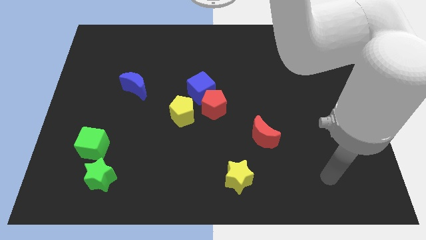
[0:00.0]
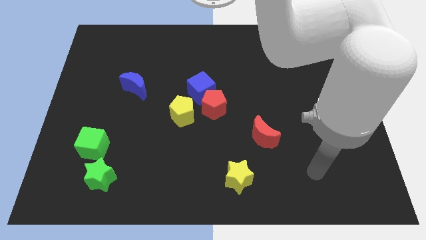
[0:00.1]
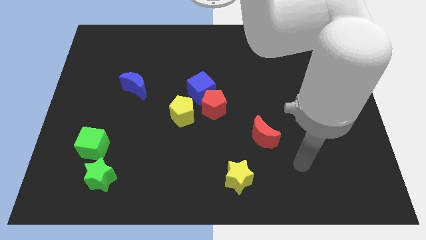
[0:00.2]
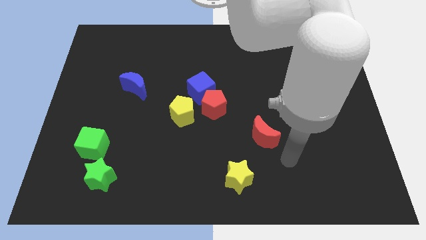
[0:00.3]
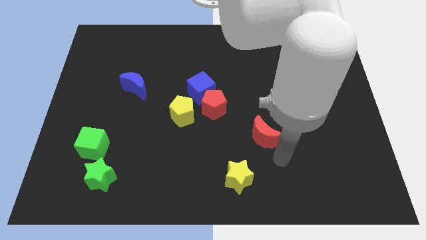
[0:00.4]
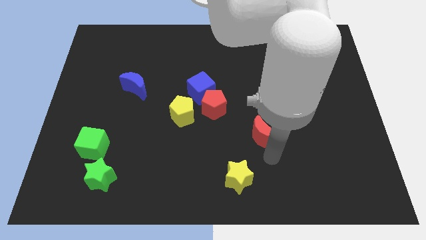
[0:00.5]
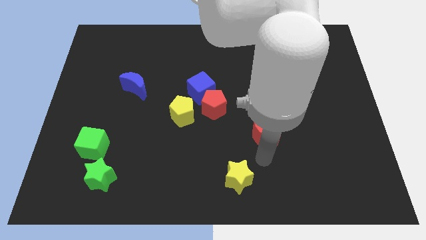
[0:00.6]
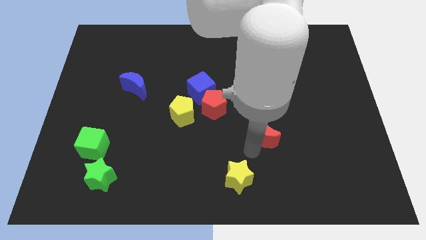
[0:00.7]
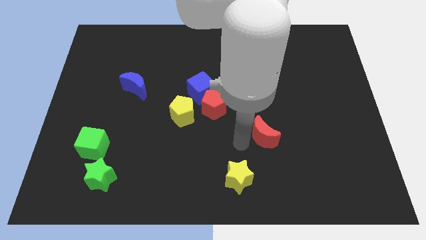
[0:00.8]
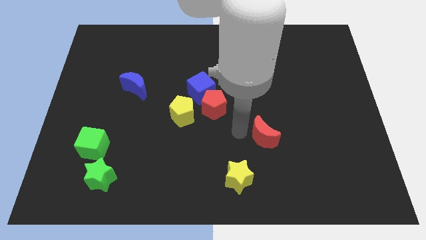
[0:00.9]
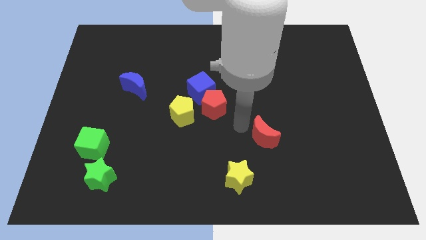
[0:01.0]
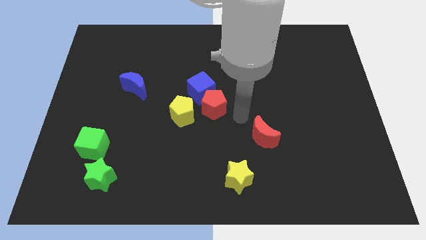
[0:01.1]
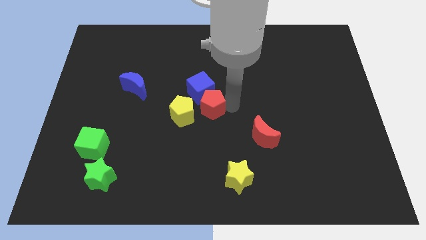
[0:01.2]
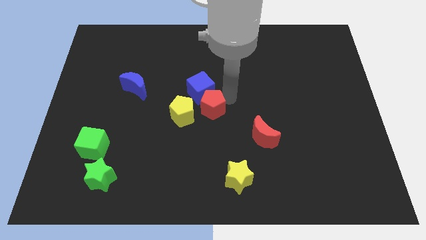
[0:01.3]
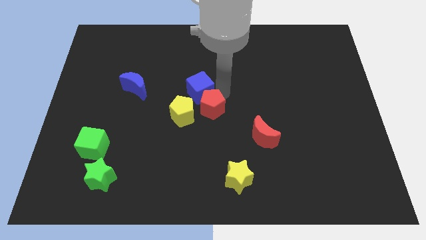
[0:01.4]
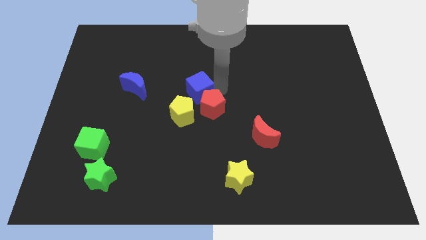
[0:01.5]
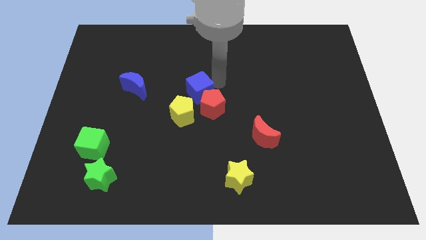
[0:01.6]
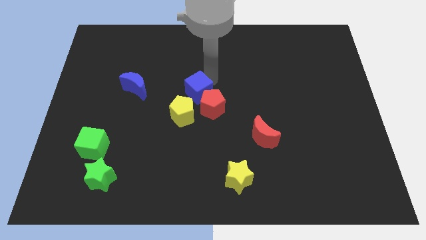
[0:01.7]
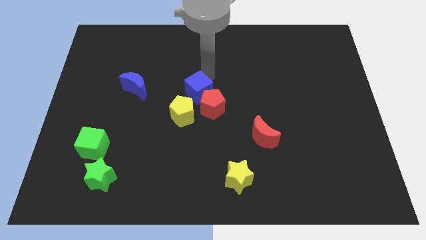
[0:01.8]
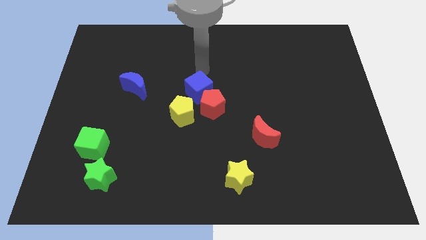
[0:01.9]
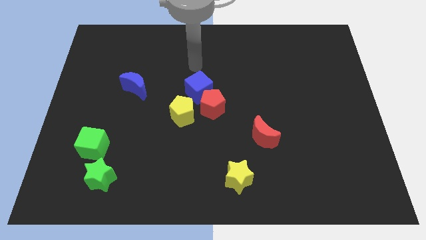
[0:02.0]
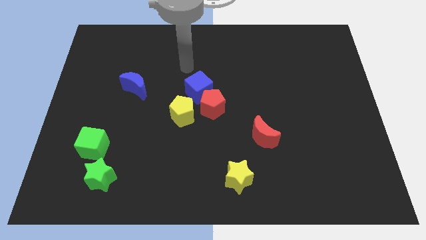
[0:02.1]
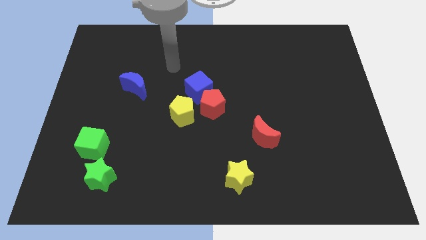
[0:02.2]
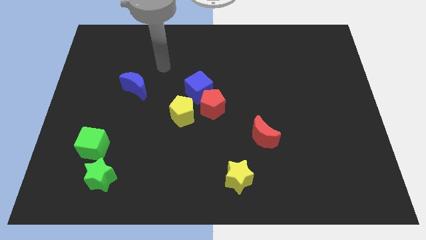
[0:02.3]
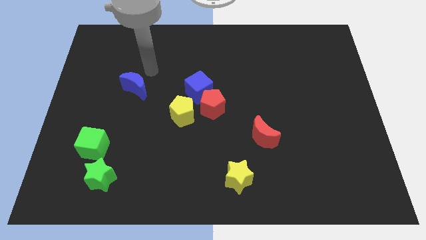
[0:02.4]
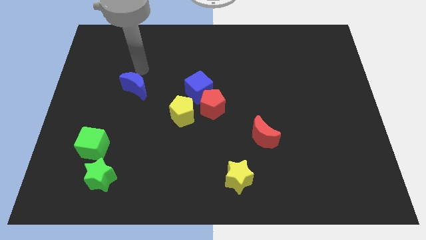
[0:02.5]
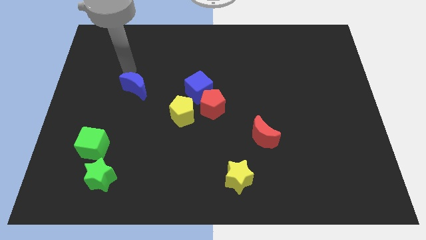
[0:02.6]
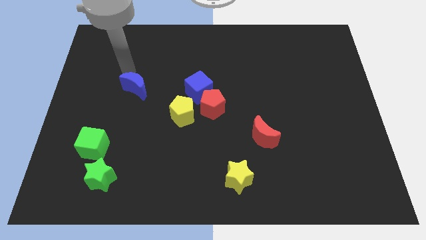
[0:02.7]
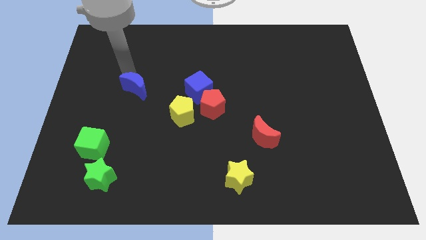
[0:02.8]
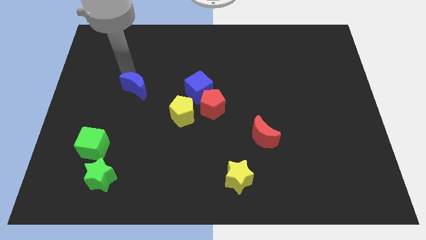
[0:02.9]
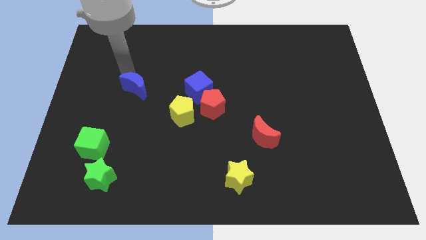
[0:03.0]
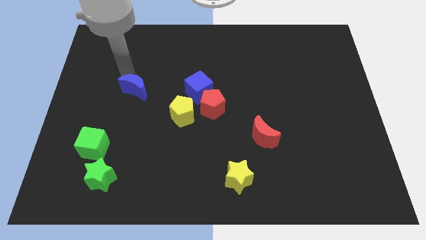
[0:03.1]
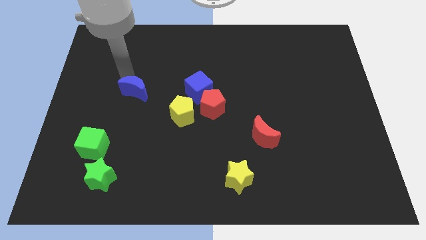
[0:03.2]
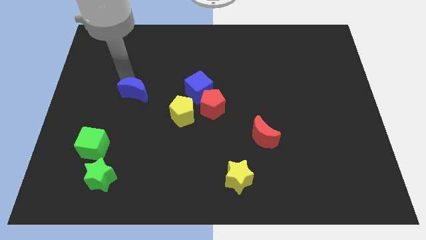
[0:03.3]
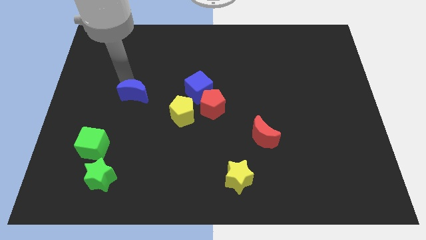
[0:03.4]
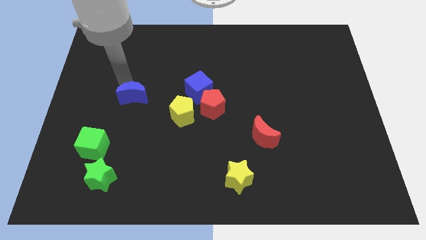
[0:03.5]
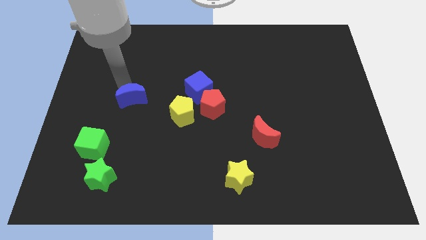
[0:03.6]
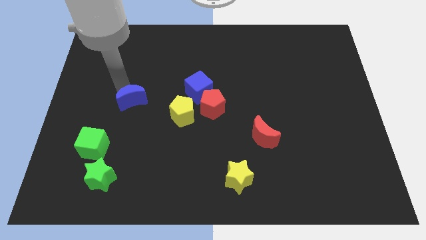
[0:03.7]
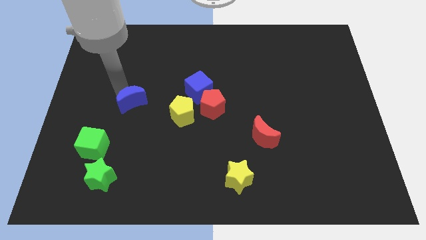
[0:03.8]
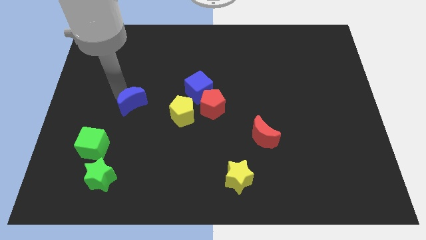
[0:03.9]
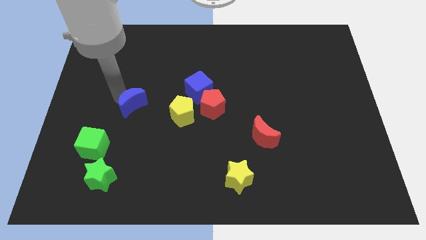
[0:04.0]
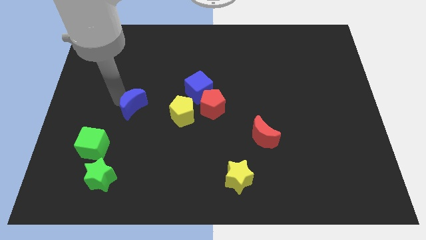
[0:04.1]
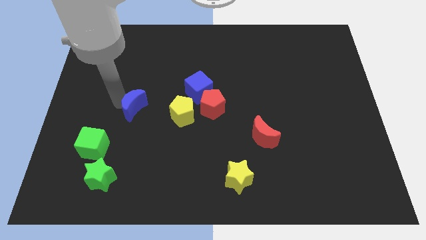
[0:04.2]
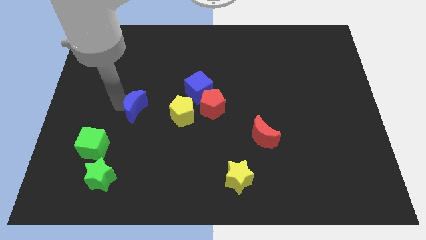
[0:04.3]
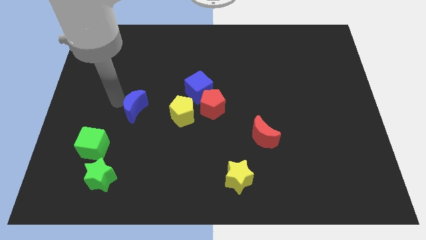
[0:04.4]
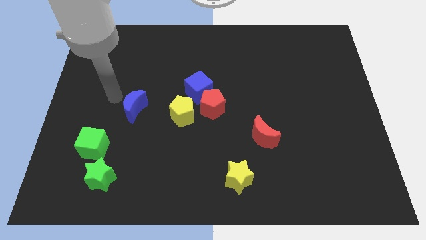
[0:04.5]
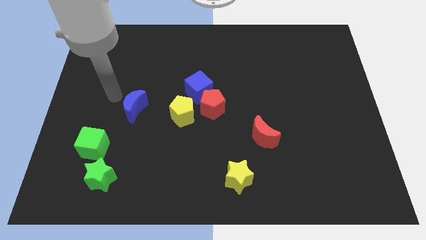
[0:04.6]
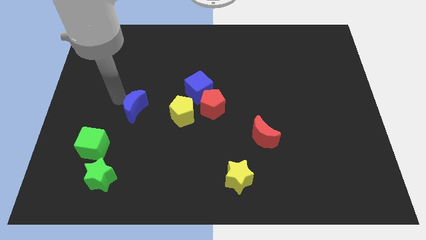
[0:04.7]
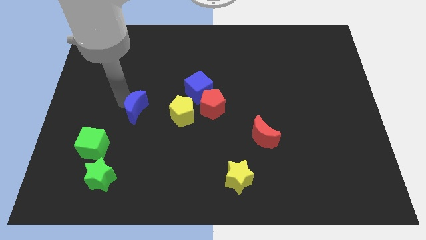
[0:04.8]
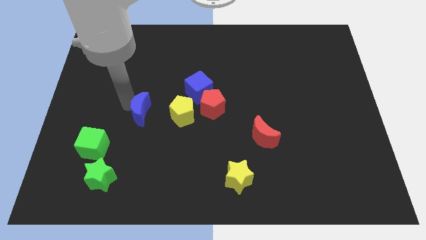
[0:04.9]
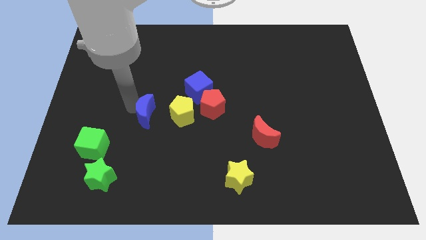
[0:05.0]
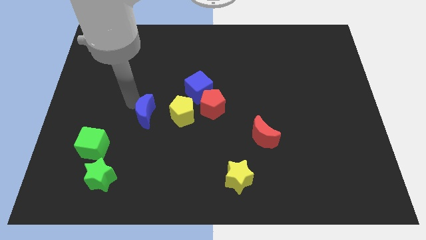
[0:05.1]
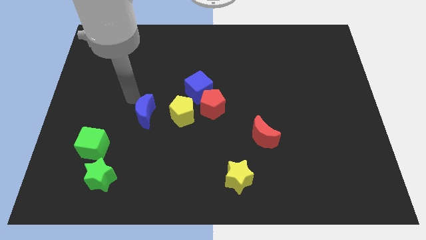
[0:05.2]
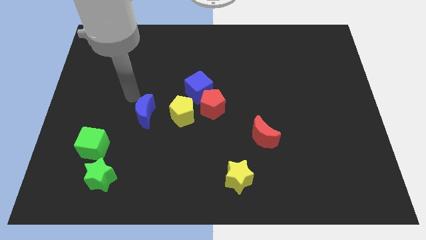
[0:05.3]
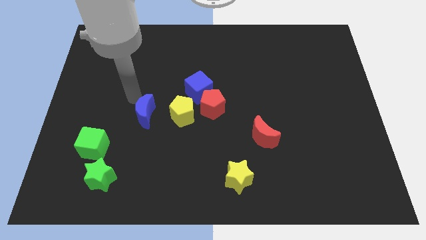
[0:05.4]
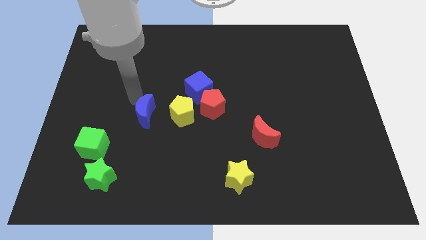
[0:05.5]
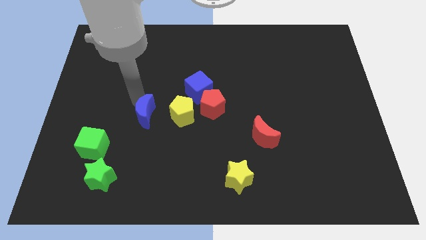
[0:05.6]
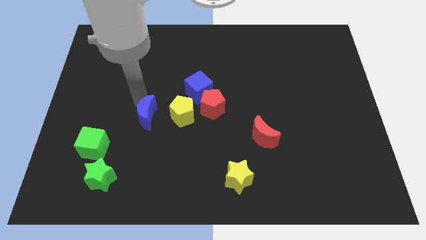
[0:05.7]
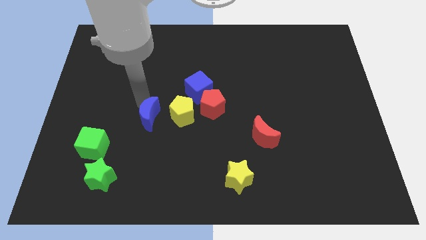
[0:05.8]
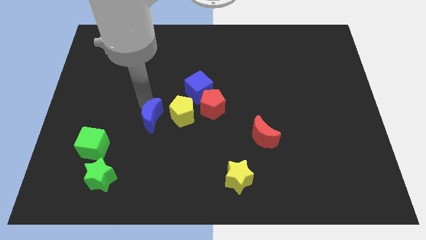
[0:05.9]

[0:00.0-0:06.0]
move the blue moon to the bottom left side of the yellow pentagon

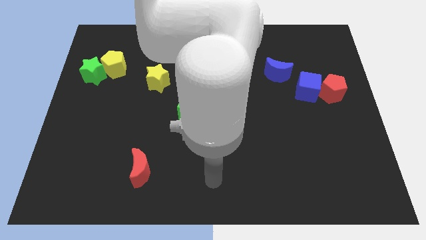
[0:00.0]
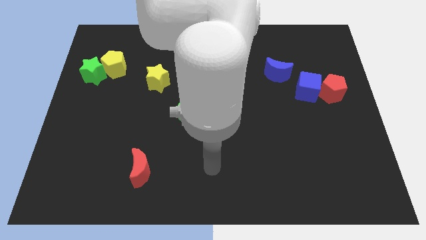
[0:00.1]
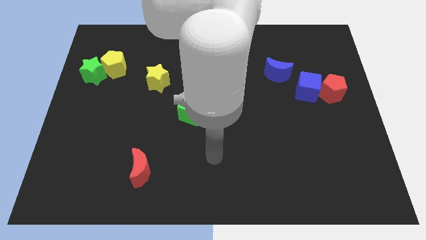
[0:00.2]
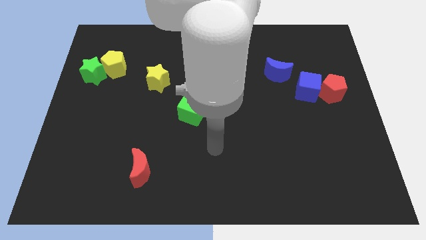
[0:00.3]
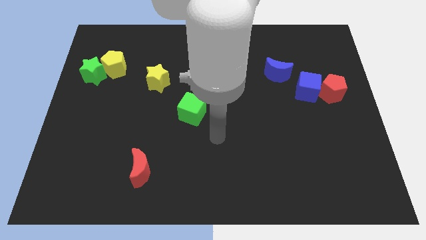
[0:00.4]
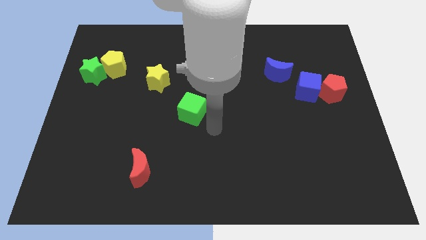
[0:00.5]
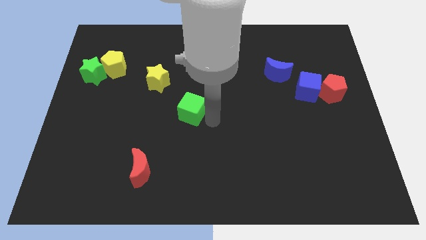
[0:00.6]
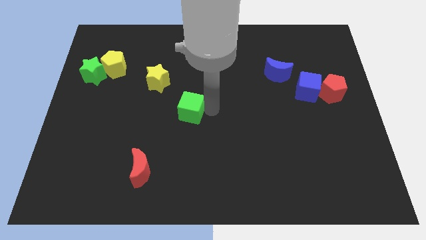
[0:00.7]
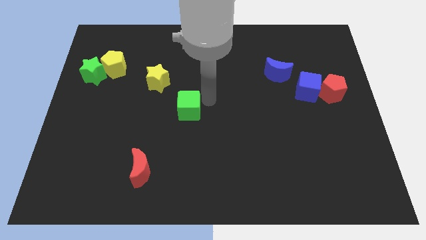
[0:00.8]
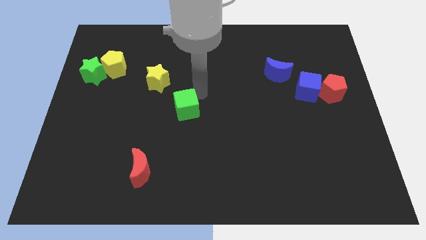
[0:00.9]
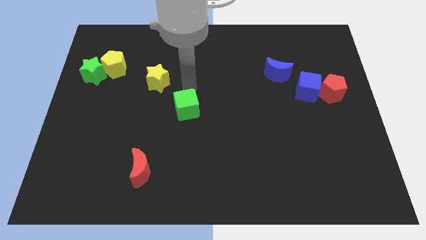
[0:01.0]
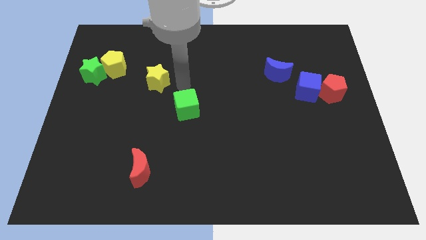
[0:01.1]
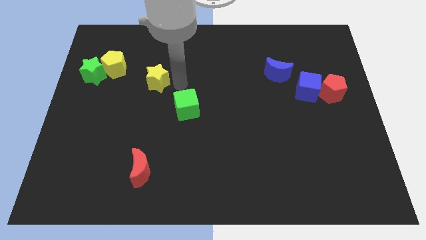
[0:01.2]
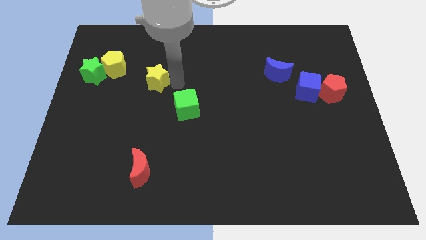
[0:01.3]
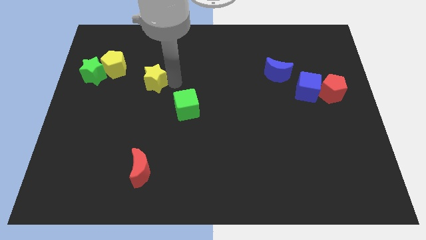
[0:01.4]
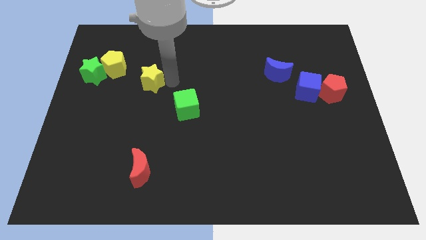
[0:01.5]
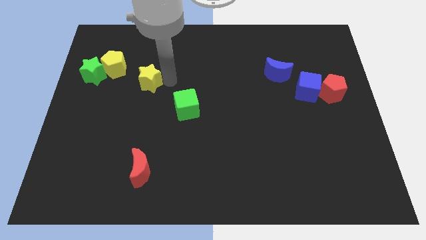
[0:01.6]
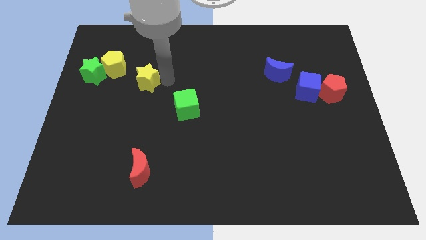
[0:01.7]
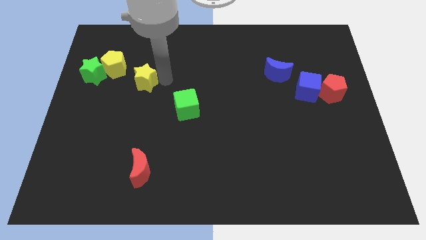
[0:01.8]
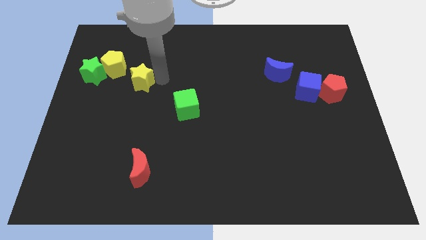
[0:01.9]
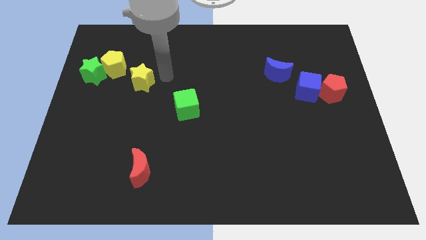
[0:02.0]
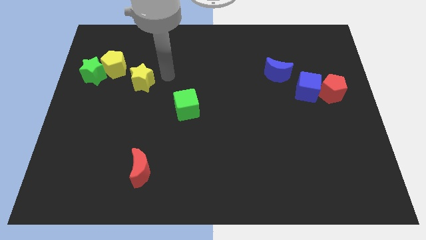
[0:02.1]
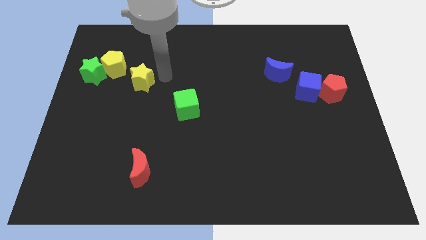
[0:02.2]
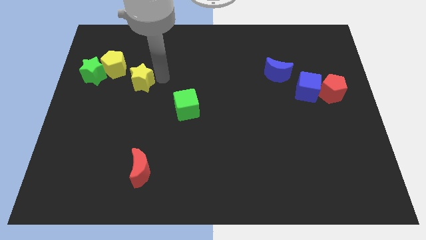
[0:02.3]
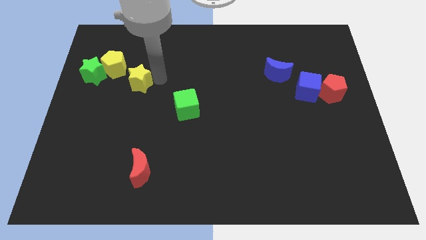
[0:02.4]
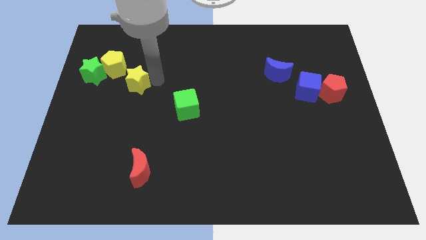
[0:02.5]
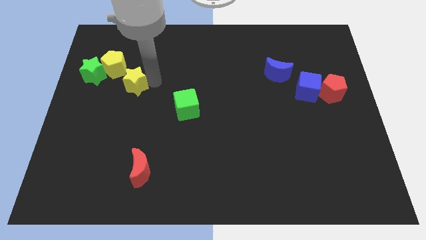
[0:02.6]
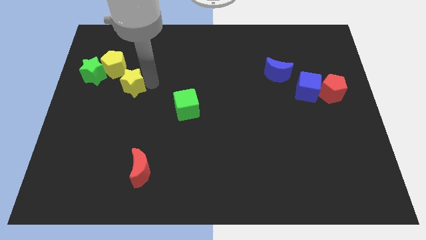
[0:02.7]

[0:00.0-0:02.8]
move the yellow star to the bottom right of the green star
